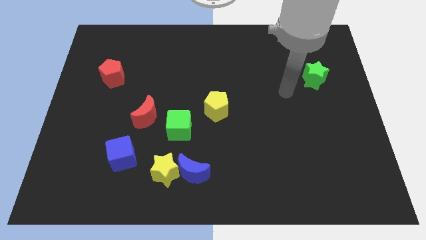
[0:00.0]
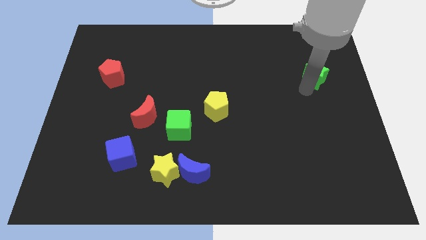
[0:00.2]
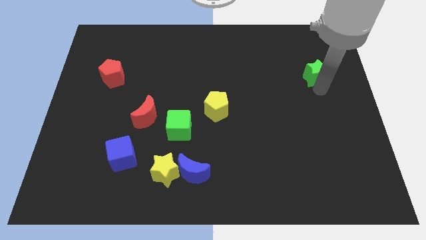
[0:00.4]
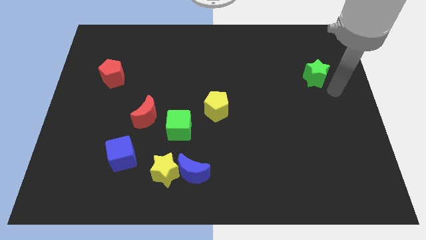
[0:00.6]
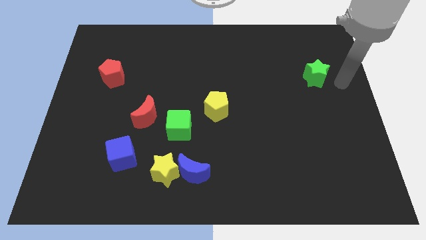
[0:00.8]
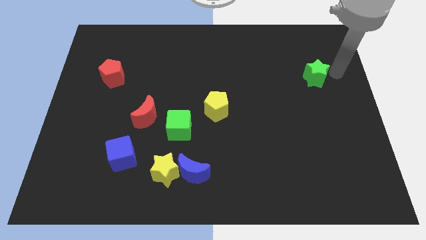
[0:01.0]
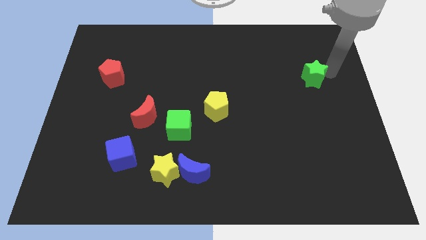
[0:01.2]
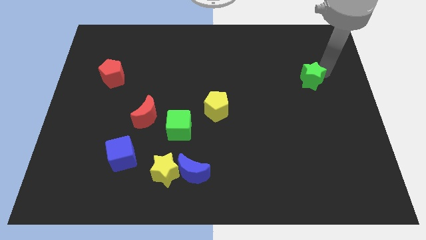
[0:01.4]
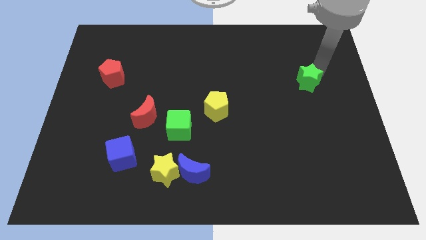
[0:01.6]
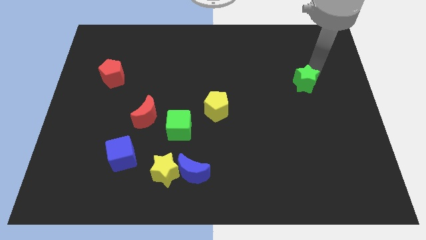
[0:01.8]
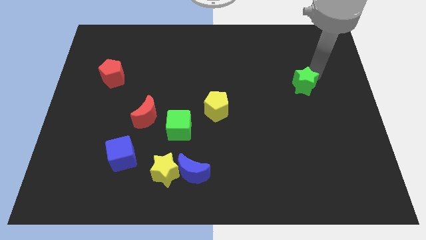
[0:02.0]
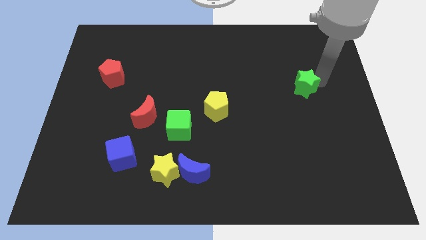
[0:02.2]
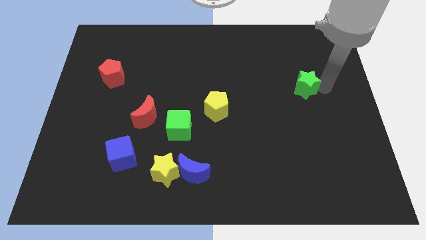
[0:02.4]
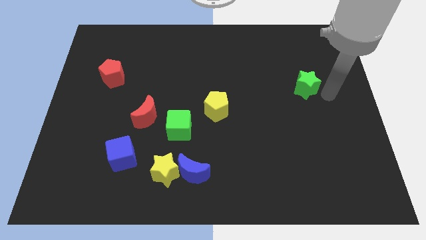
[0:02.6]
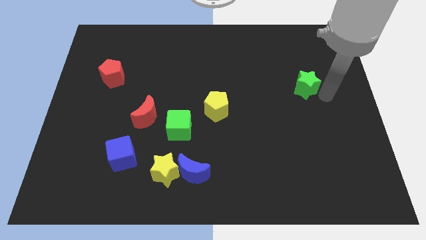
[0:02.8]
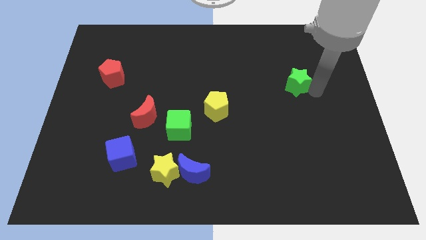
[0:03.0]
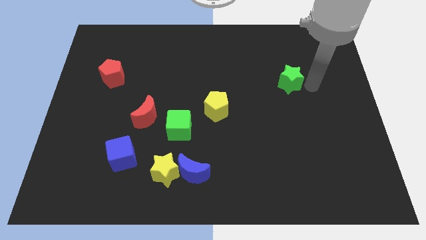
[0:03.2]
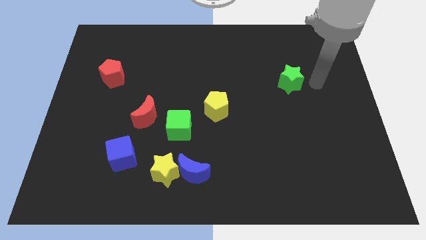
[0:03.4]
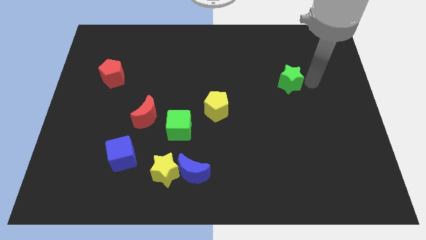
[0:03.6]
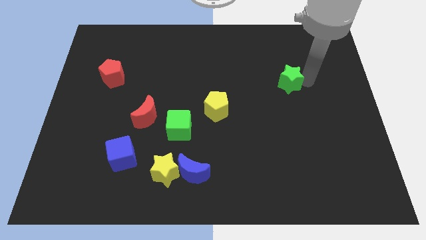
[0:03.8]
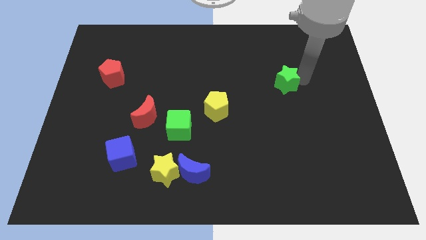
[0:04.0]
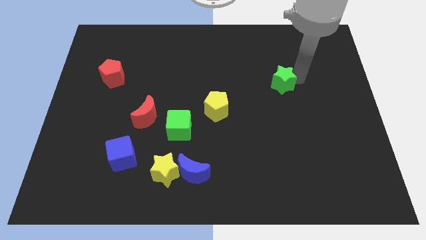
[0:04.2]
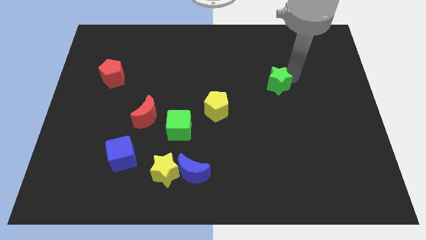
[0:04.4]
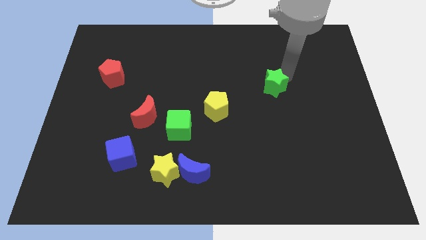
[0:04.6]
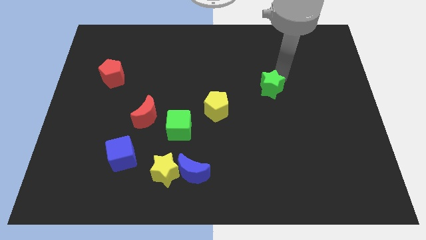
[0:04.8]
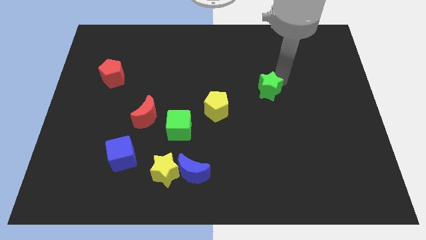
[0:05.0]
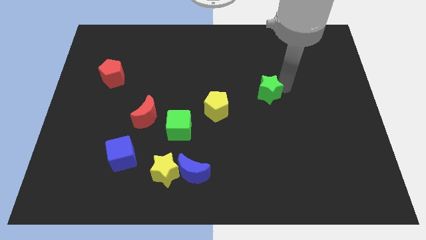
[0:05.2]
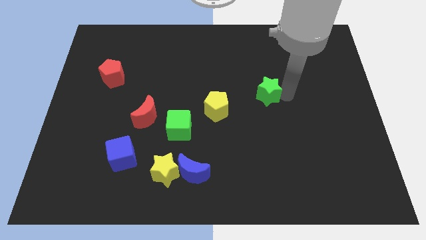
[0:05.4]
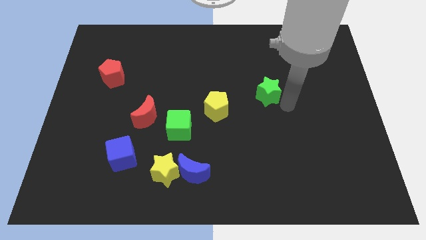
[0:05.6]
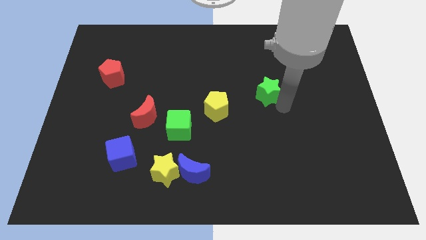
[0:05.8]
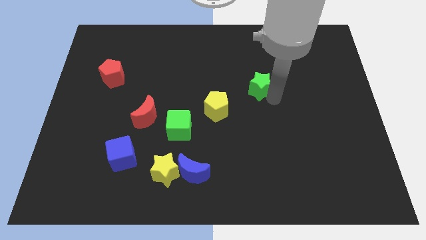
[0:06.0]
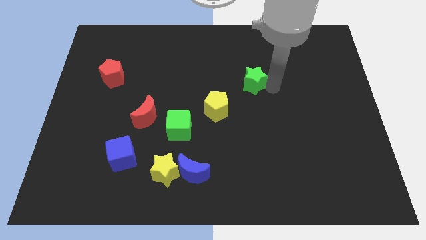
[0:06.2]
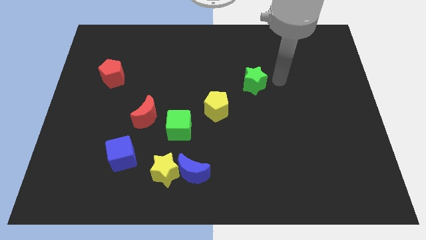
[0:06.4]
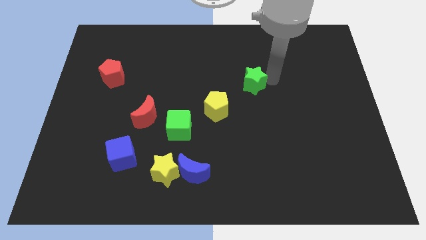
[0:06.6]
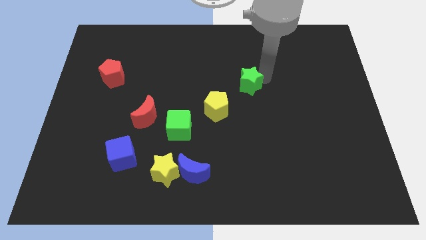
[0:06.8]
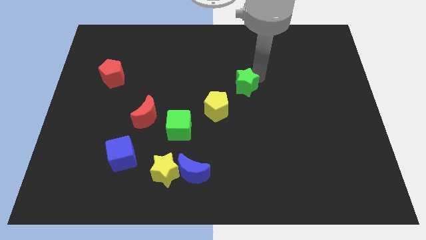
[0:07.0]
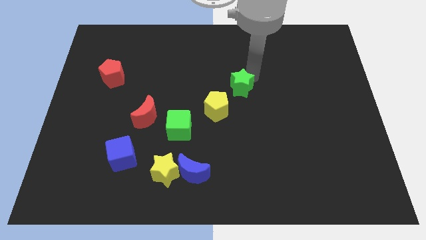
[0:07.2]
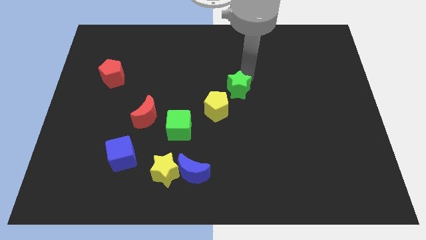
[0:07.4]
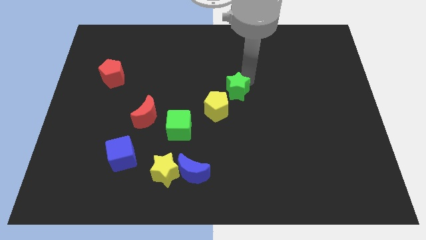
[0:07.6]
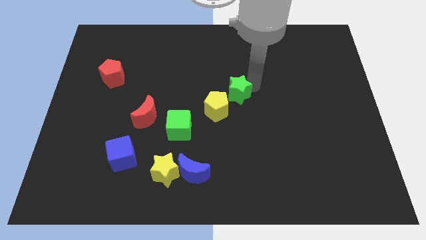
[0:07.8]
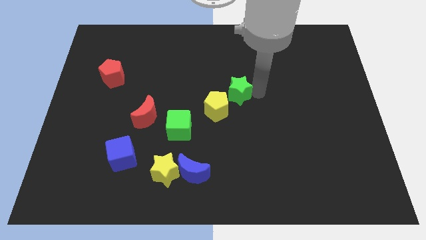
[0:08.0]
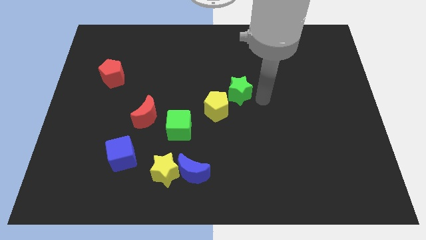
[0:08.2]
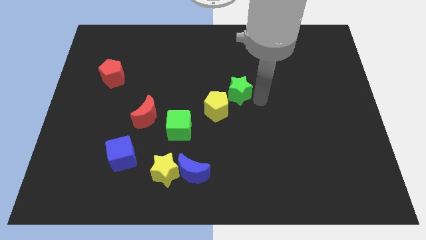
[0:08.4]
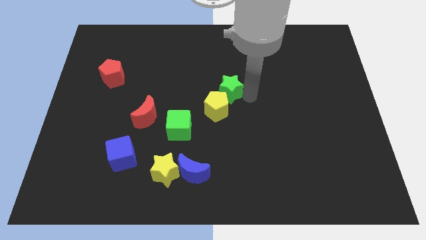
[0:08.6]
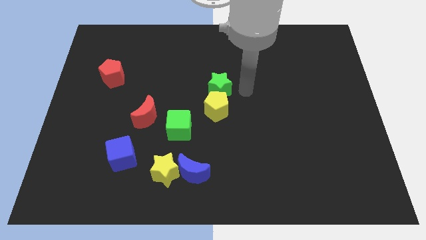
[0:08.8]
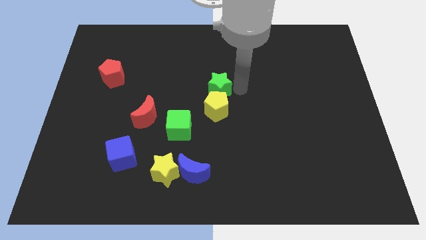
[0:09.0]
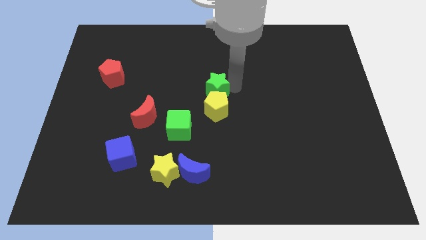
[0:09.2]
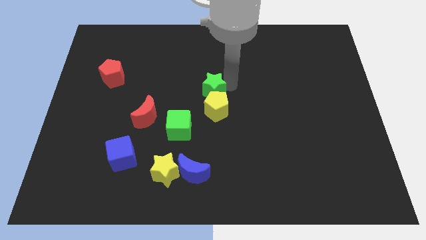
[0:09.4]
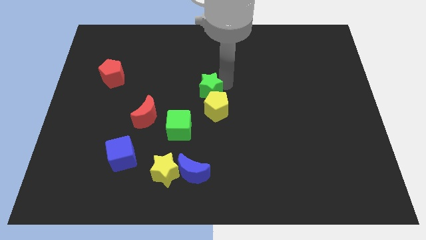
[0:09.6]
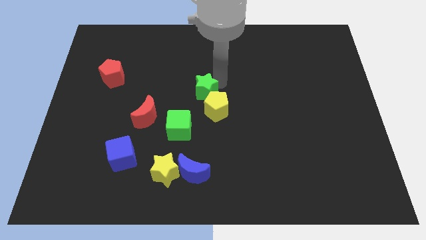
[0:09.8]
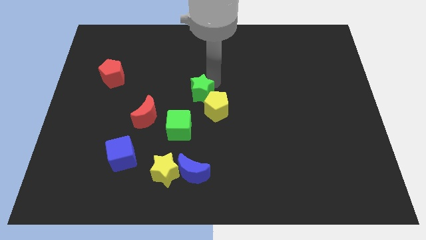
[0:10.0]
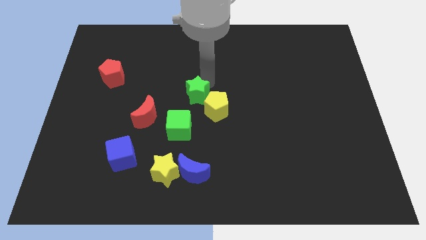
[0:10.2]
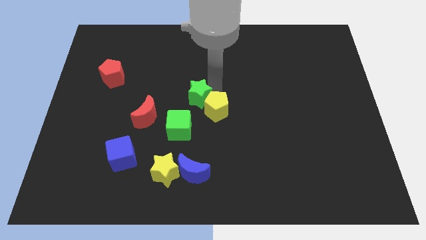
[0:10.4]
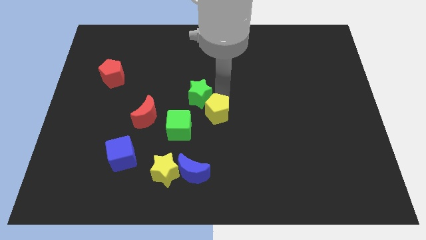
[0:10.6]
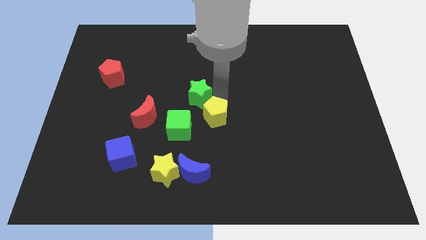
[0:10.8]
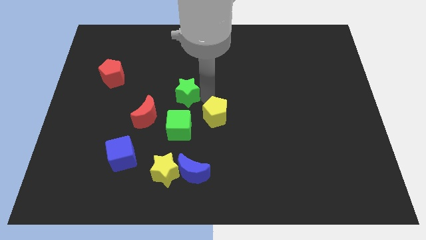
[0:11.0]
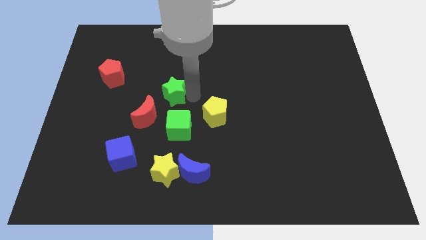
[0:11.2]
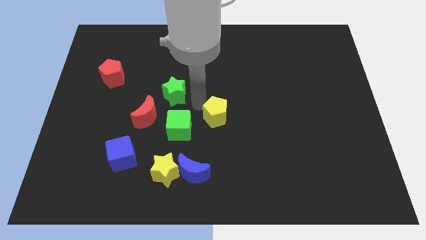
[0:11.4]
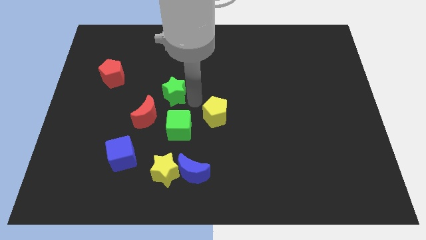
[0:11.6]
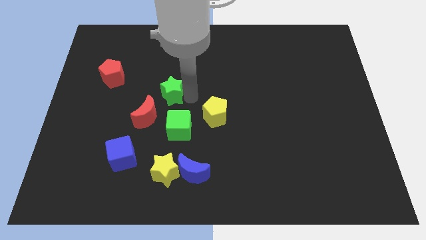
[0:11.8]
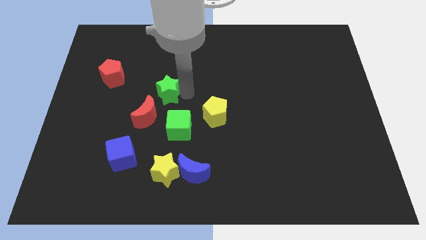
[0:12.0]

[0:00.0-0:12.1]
put the green star to the top side of the red moon
